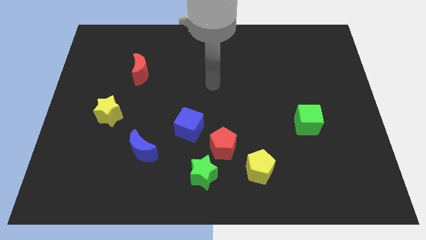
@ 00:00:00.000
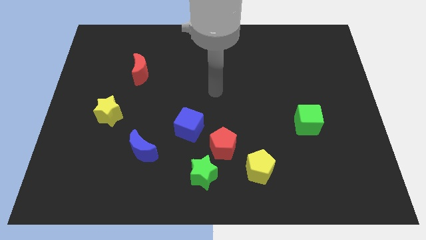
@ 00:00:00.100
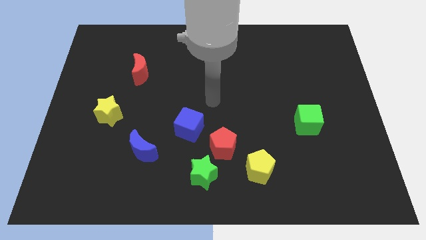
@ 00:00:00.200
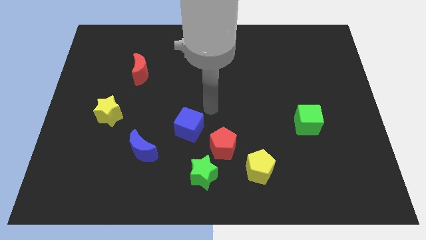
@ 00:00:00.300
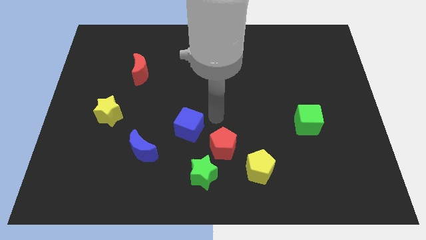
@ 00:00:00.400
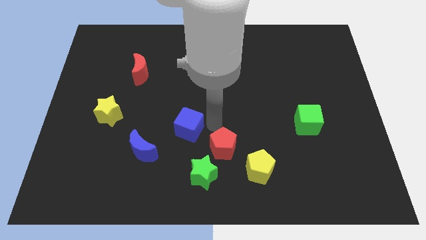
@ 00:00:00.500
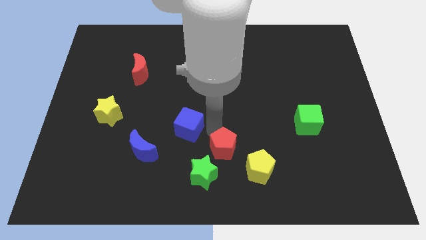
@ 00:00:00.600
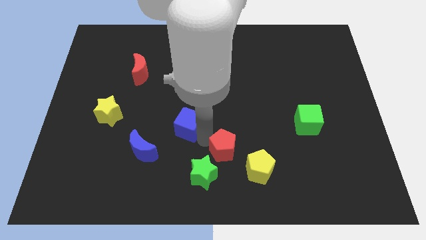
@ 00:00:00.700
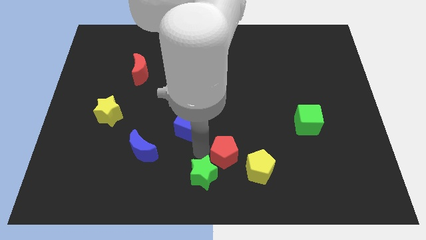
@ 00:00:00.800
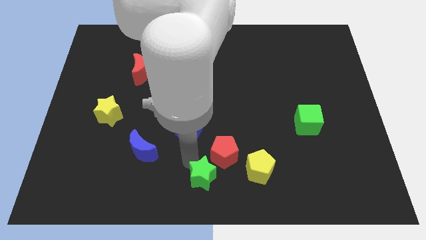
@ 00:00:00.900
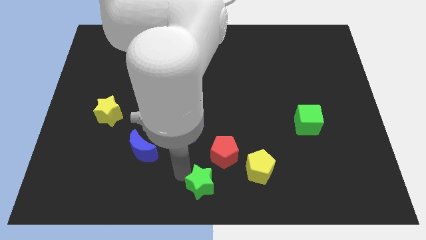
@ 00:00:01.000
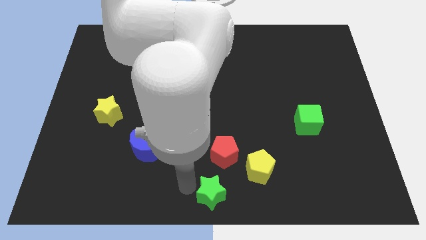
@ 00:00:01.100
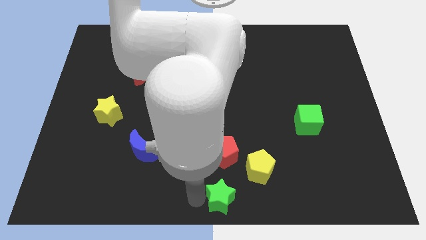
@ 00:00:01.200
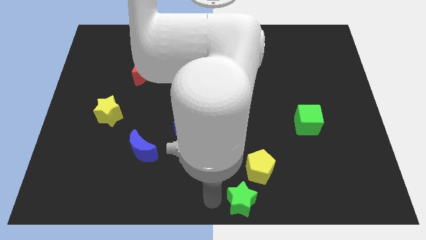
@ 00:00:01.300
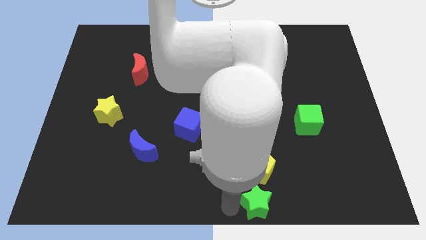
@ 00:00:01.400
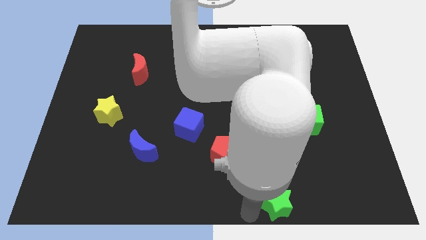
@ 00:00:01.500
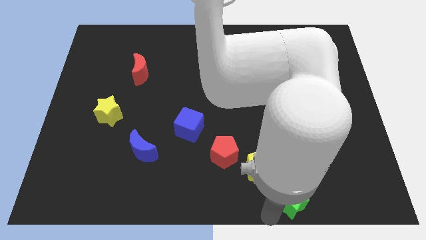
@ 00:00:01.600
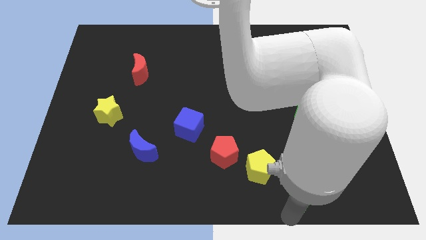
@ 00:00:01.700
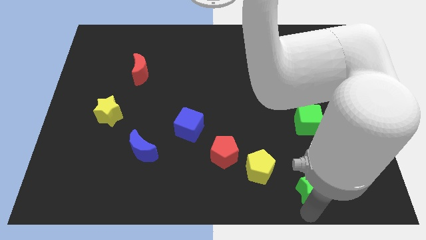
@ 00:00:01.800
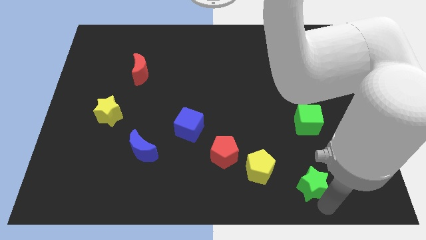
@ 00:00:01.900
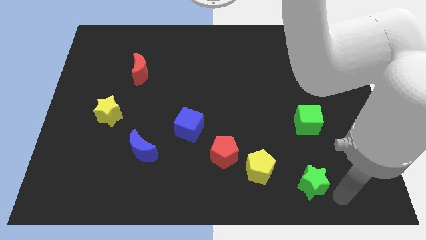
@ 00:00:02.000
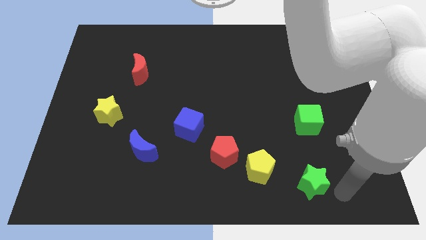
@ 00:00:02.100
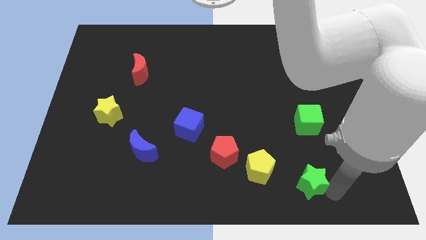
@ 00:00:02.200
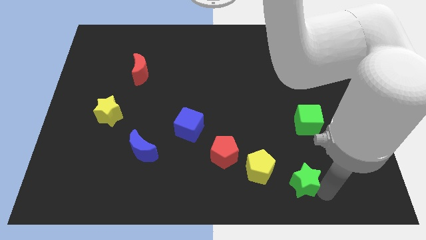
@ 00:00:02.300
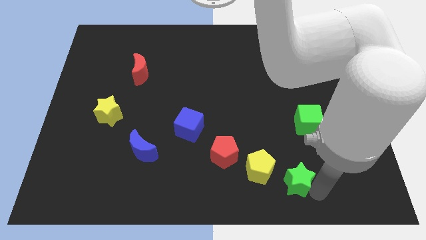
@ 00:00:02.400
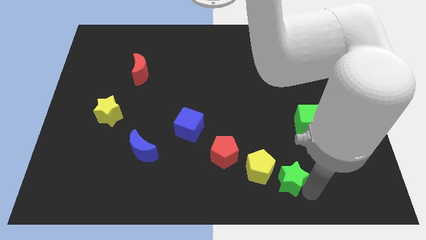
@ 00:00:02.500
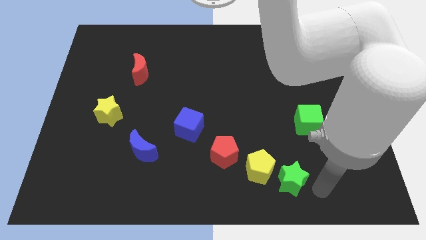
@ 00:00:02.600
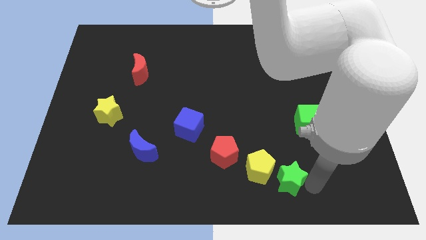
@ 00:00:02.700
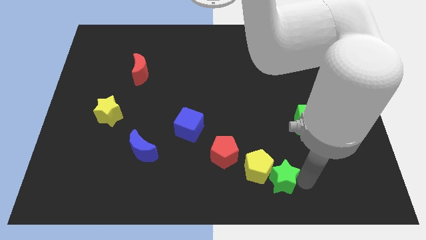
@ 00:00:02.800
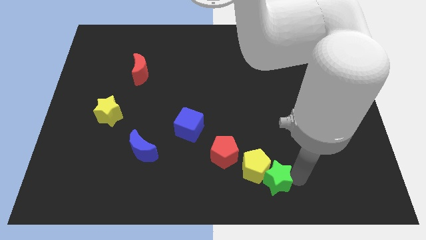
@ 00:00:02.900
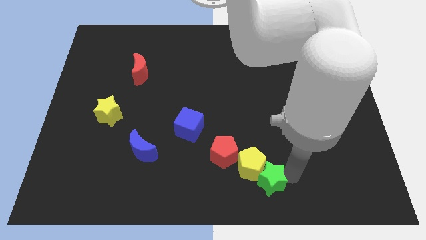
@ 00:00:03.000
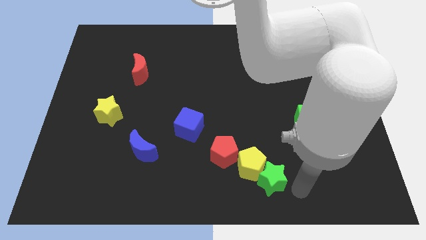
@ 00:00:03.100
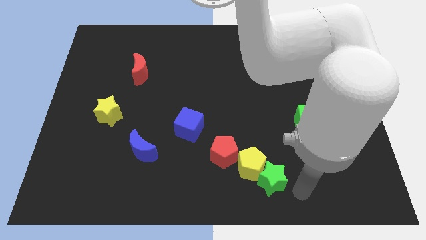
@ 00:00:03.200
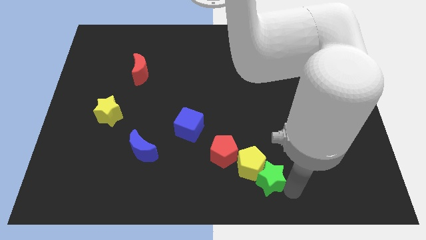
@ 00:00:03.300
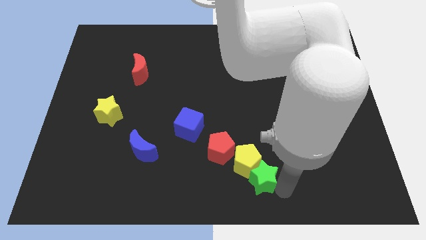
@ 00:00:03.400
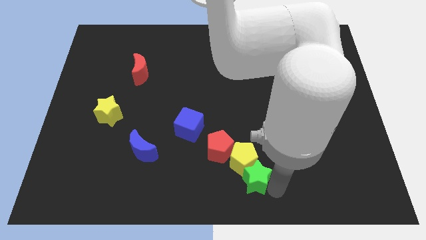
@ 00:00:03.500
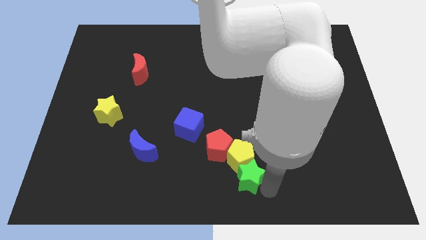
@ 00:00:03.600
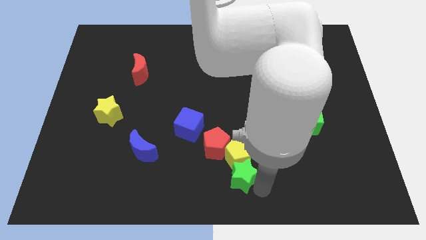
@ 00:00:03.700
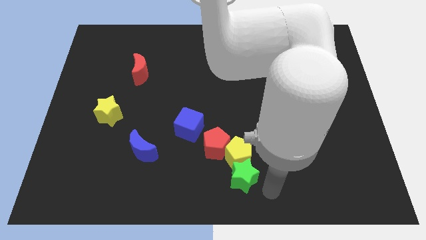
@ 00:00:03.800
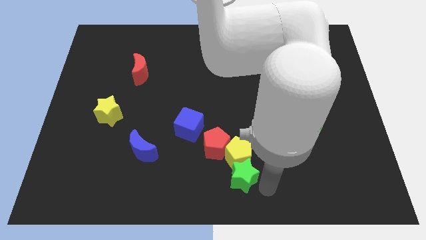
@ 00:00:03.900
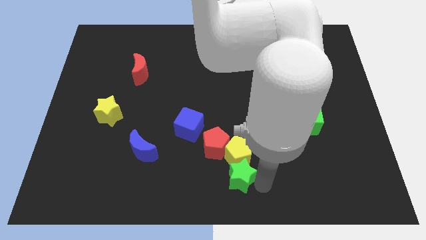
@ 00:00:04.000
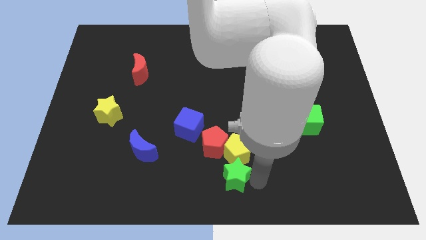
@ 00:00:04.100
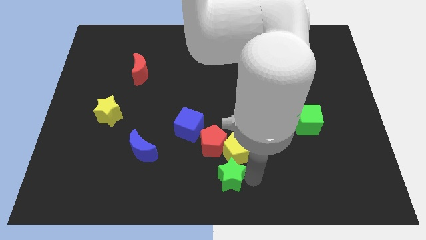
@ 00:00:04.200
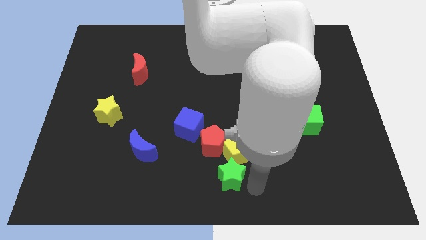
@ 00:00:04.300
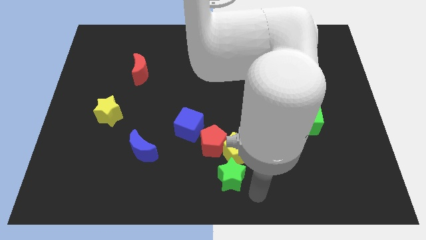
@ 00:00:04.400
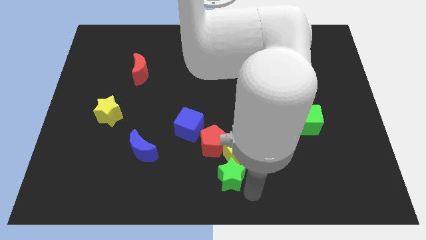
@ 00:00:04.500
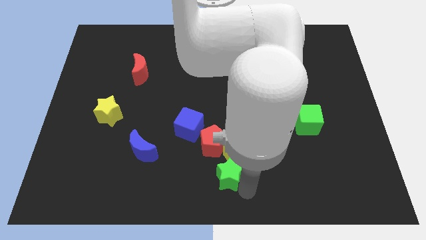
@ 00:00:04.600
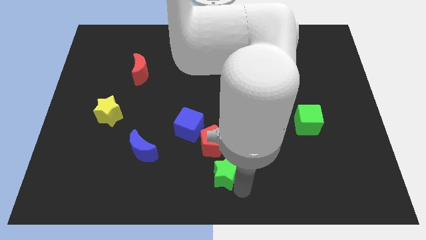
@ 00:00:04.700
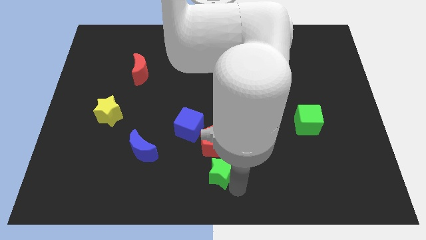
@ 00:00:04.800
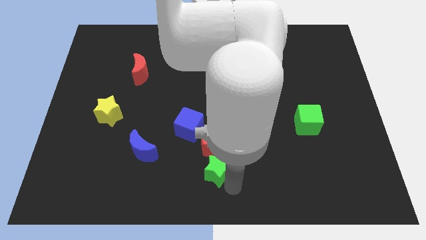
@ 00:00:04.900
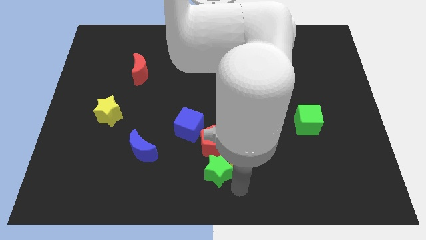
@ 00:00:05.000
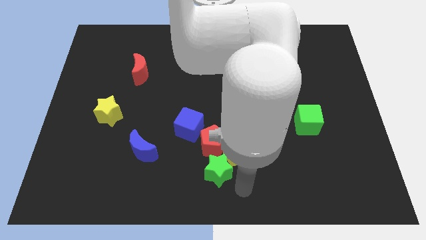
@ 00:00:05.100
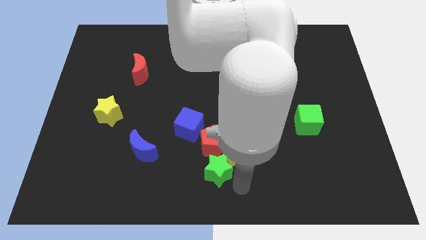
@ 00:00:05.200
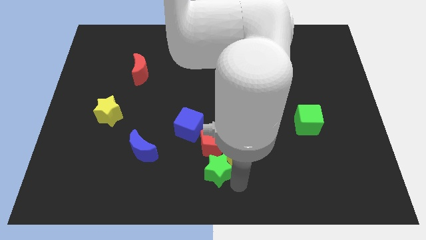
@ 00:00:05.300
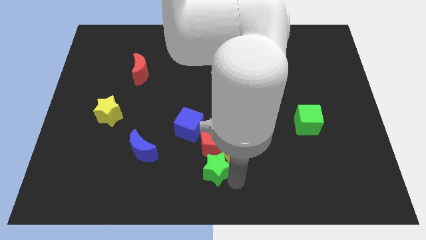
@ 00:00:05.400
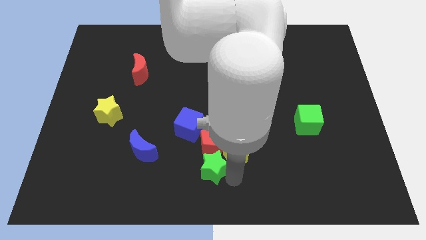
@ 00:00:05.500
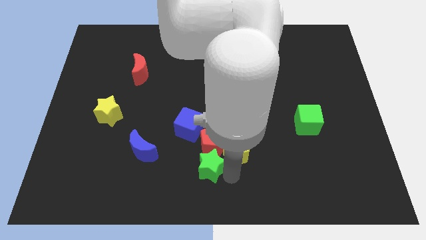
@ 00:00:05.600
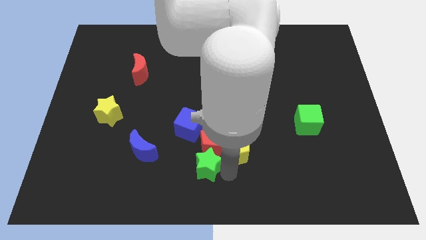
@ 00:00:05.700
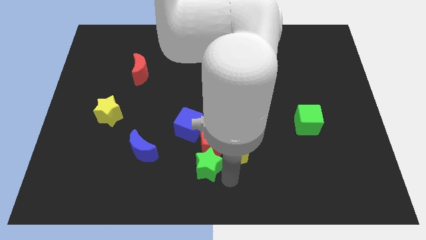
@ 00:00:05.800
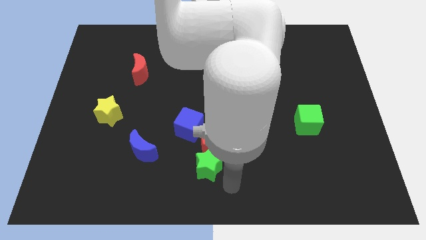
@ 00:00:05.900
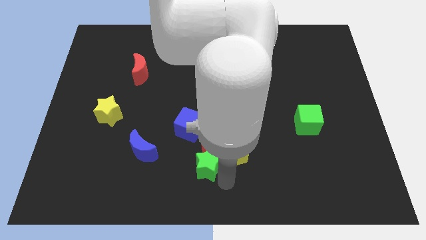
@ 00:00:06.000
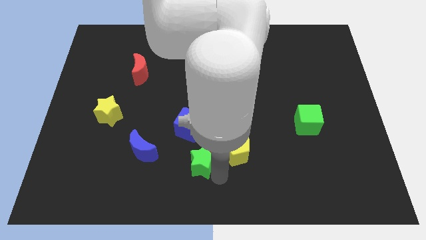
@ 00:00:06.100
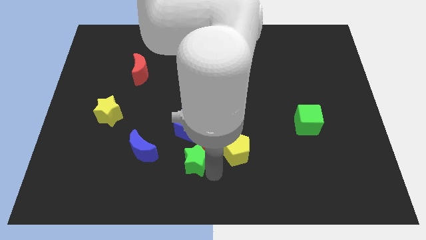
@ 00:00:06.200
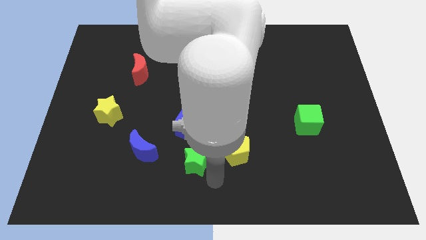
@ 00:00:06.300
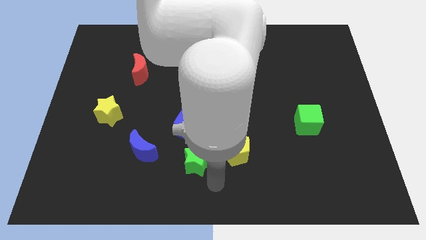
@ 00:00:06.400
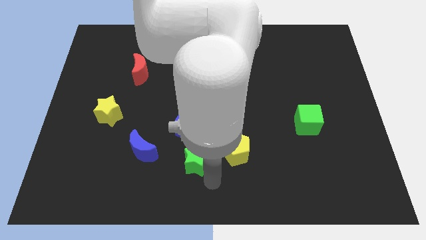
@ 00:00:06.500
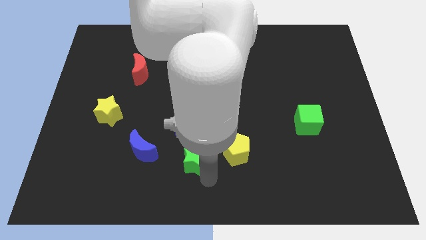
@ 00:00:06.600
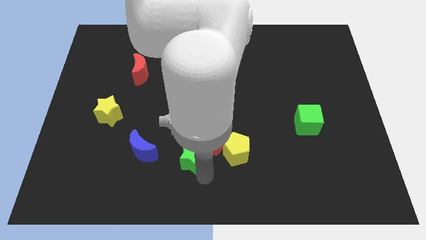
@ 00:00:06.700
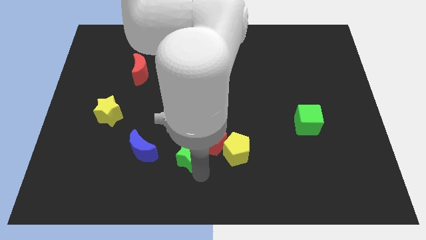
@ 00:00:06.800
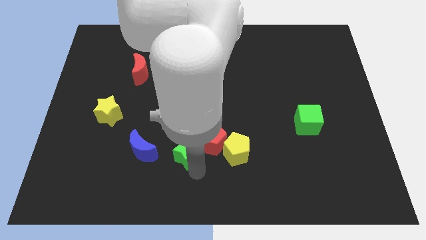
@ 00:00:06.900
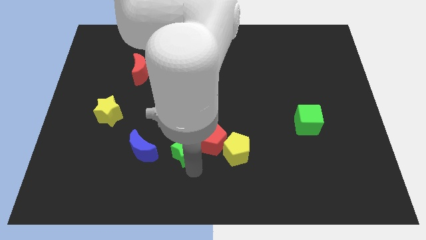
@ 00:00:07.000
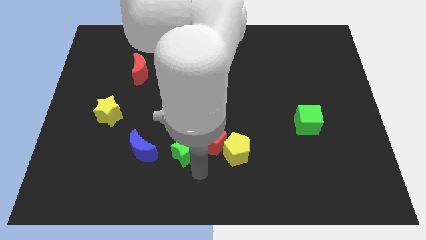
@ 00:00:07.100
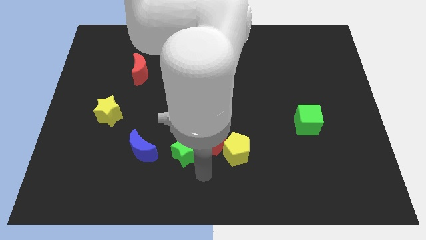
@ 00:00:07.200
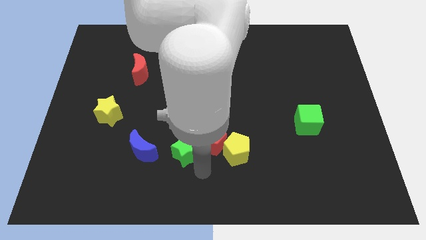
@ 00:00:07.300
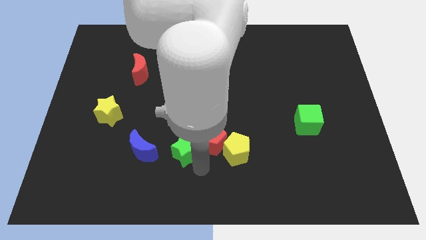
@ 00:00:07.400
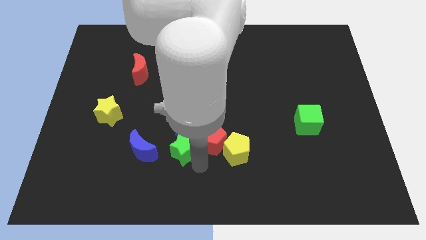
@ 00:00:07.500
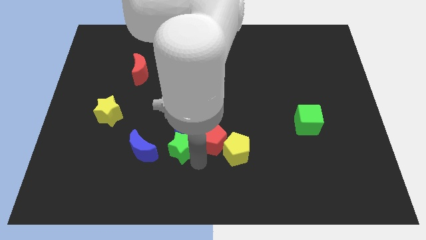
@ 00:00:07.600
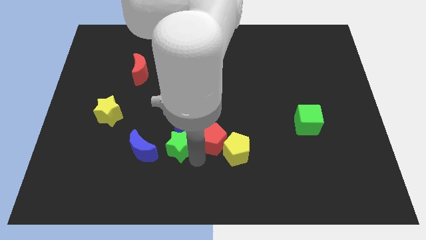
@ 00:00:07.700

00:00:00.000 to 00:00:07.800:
slide the green star diagonally up and to the right of the blue moon
